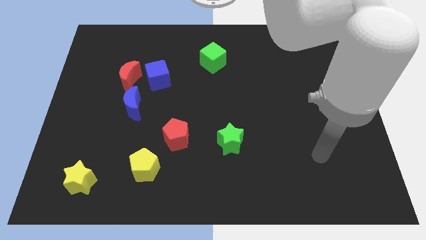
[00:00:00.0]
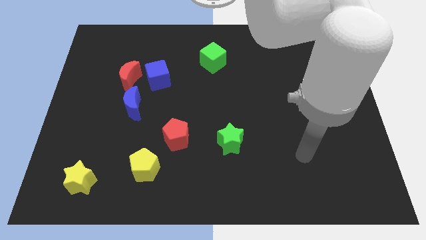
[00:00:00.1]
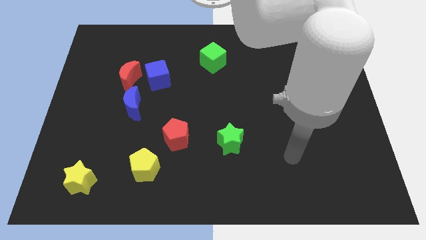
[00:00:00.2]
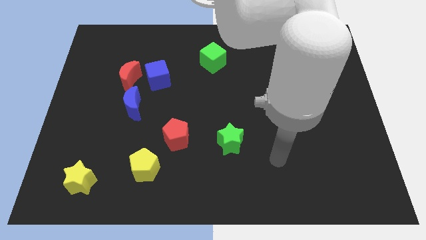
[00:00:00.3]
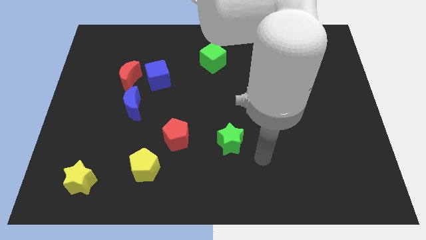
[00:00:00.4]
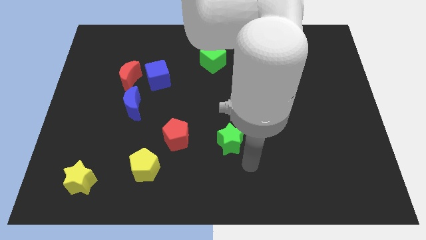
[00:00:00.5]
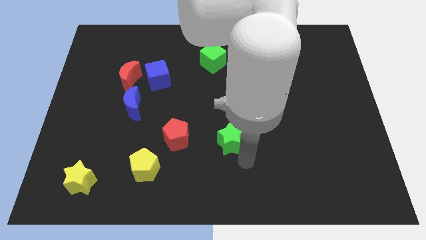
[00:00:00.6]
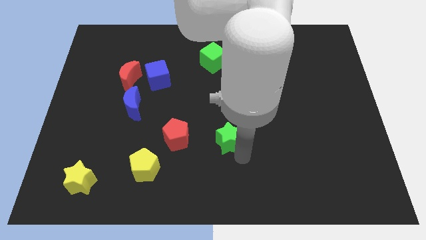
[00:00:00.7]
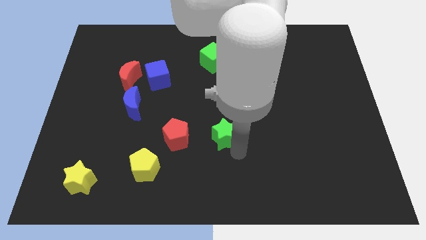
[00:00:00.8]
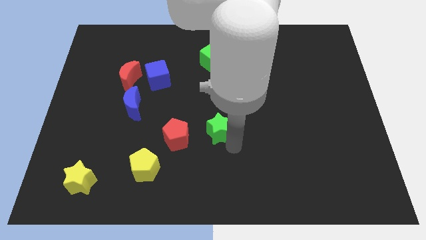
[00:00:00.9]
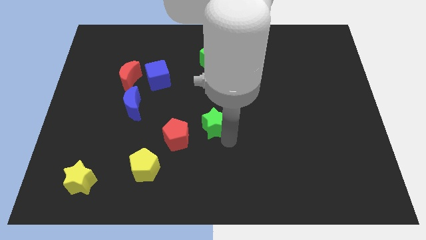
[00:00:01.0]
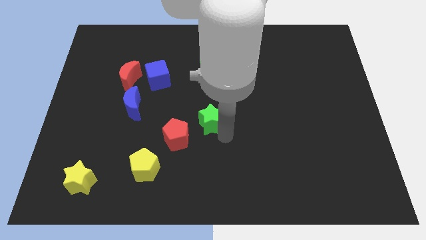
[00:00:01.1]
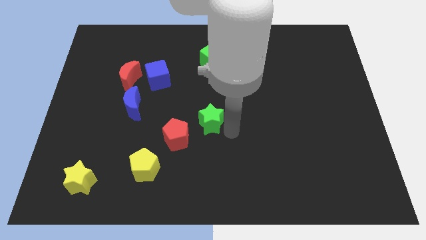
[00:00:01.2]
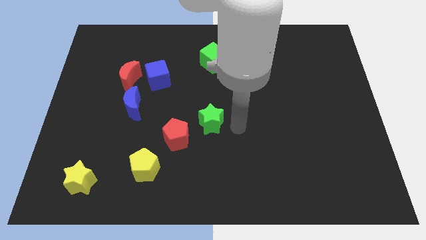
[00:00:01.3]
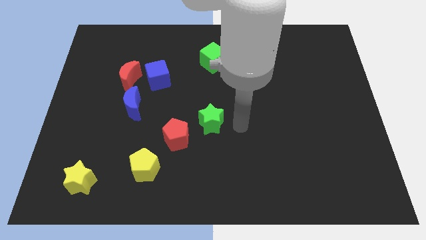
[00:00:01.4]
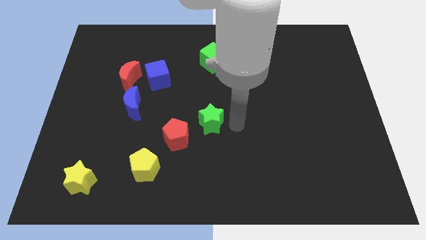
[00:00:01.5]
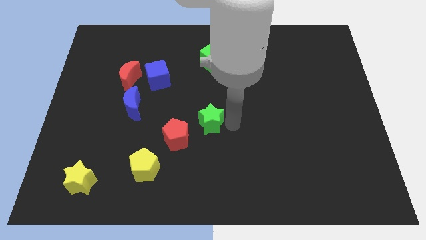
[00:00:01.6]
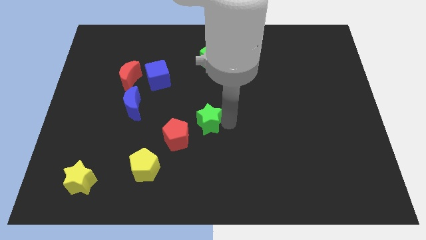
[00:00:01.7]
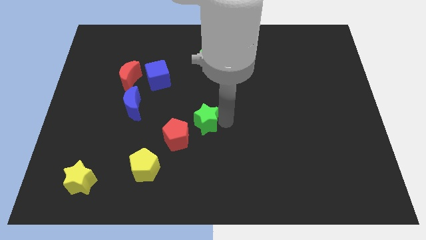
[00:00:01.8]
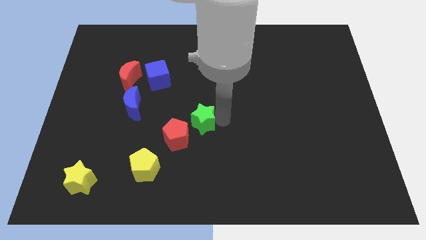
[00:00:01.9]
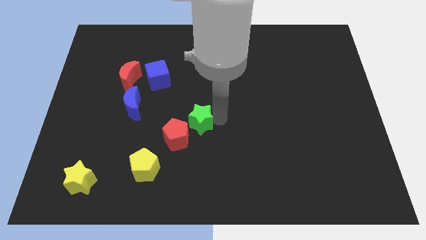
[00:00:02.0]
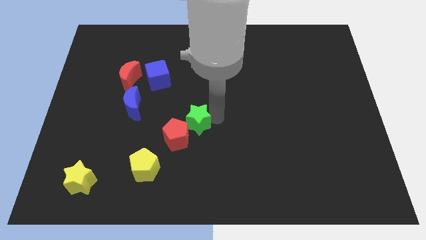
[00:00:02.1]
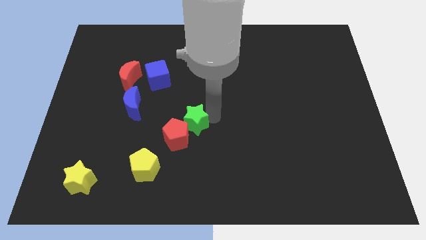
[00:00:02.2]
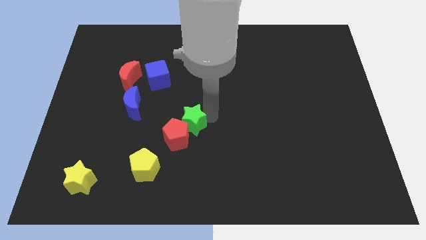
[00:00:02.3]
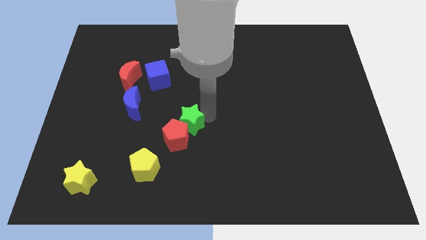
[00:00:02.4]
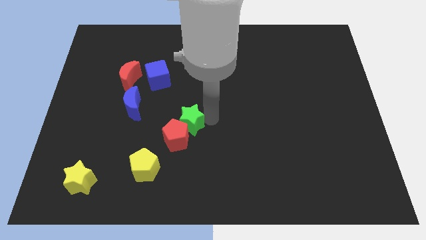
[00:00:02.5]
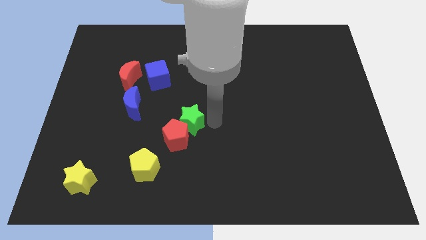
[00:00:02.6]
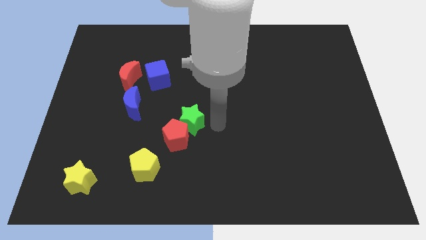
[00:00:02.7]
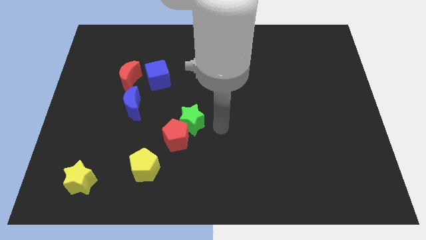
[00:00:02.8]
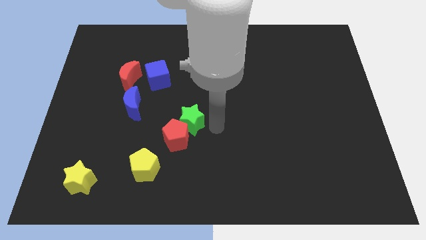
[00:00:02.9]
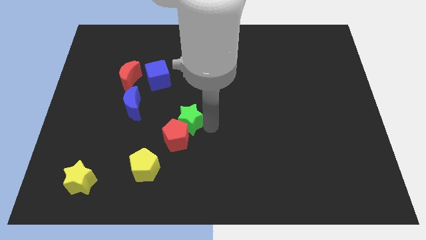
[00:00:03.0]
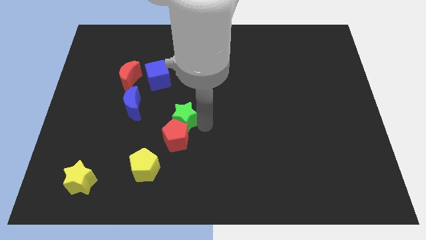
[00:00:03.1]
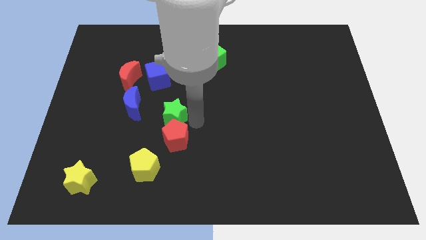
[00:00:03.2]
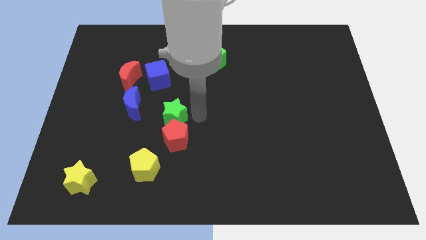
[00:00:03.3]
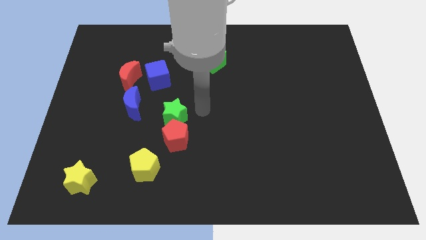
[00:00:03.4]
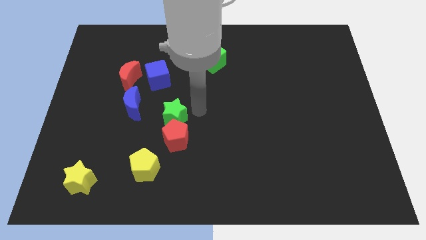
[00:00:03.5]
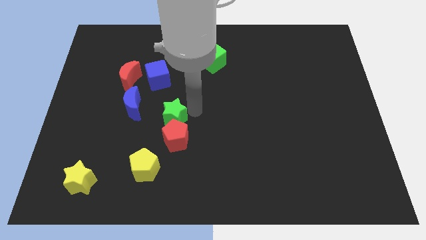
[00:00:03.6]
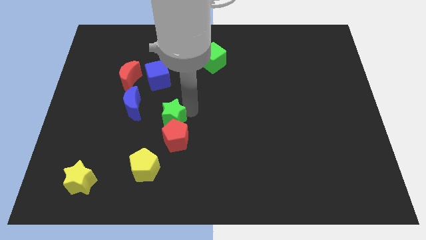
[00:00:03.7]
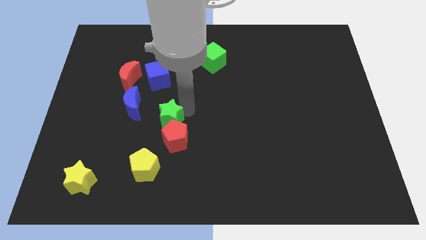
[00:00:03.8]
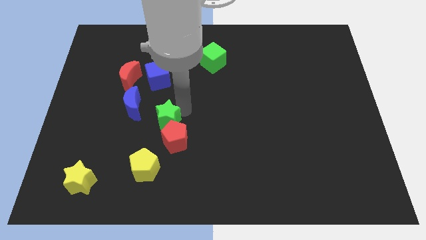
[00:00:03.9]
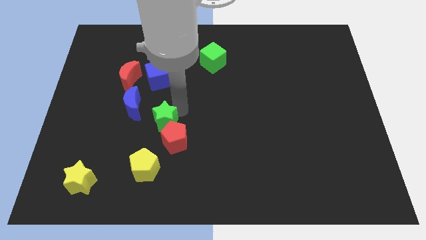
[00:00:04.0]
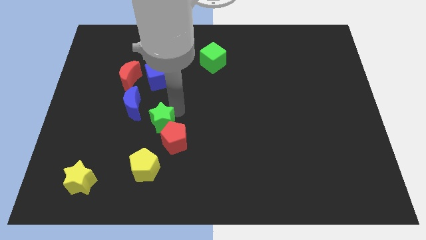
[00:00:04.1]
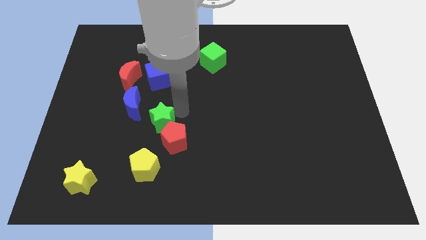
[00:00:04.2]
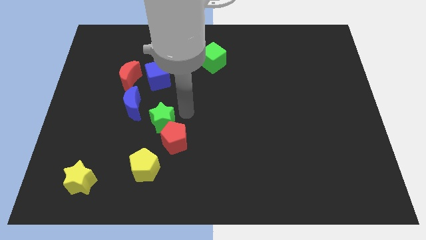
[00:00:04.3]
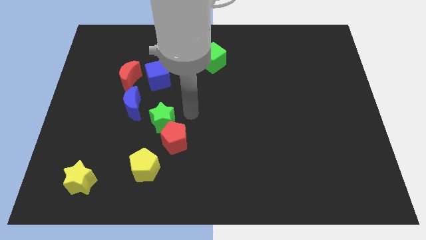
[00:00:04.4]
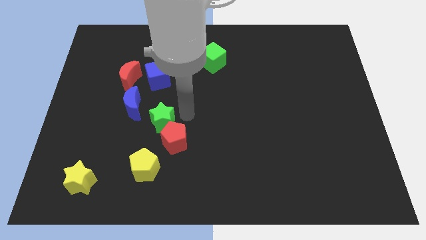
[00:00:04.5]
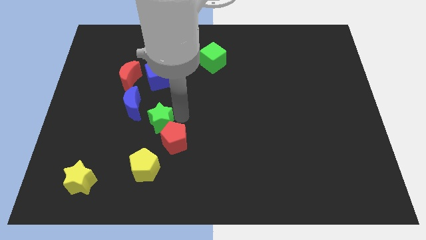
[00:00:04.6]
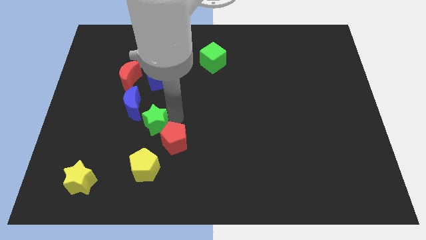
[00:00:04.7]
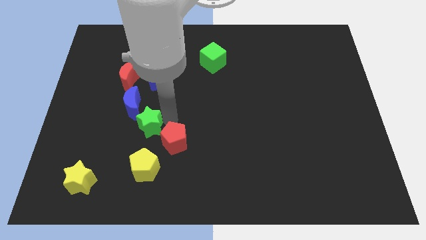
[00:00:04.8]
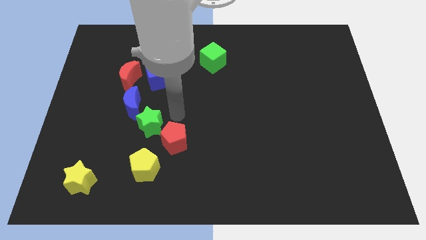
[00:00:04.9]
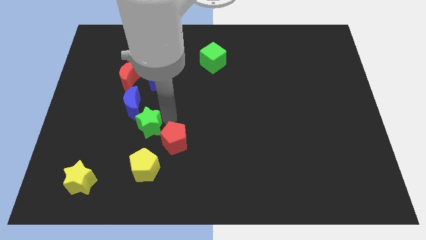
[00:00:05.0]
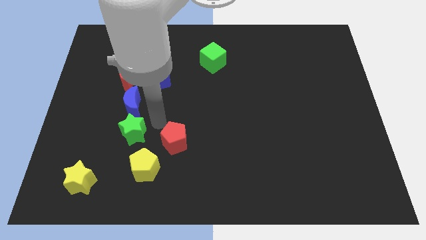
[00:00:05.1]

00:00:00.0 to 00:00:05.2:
move the green star left

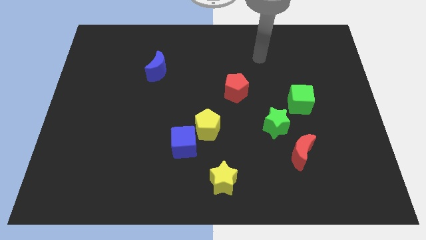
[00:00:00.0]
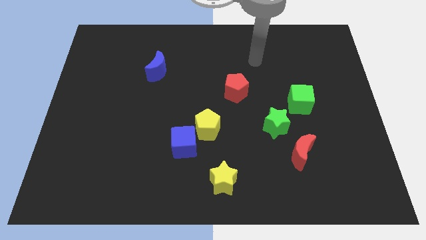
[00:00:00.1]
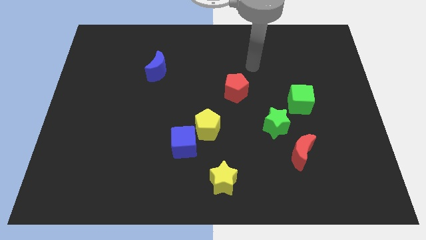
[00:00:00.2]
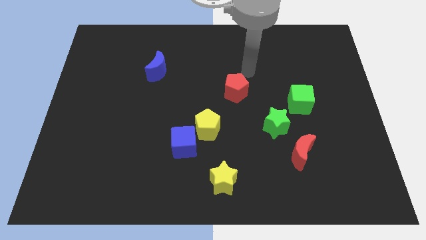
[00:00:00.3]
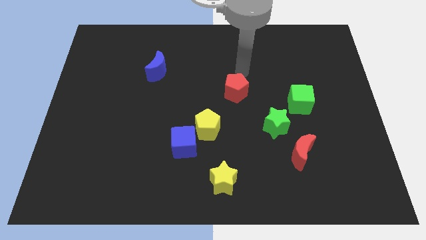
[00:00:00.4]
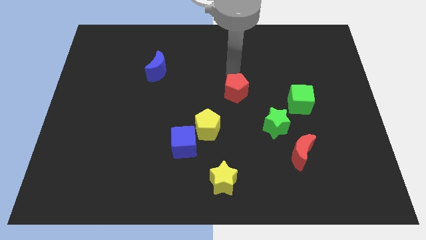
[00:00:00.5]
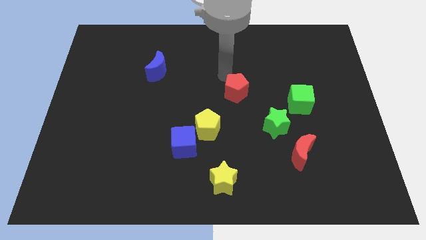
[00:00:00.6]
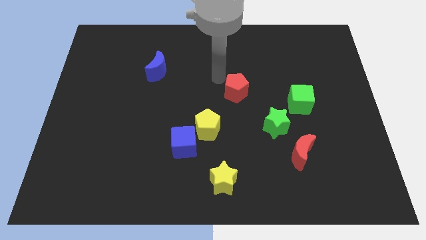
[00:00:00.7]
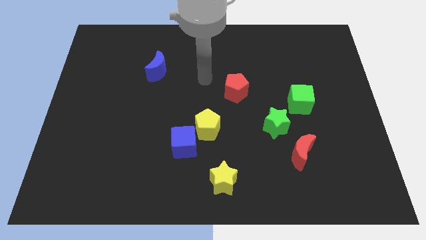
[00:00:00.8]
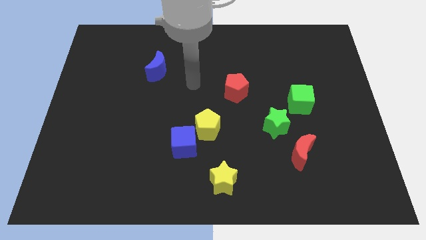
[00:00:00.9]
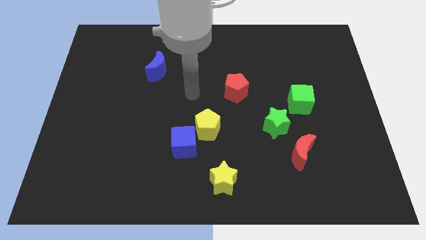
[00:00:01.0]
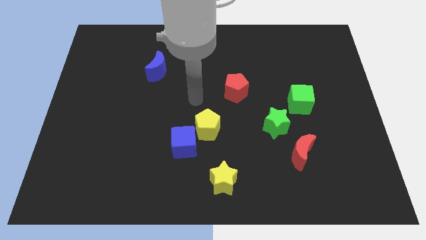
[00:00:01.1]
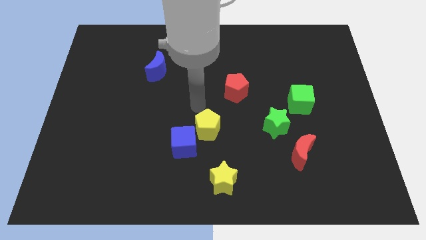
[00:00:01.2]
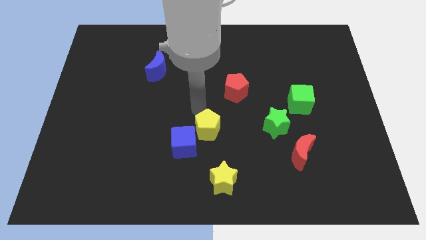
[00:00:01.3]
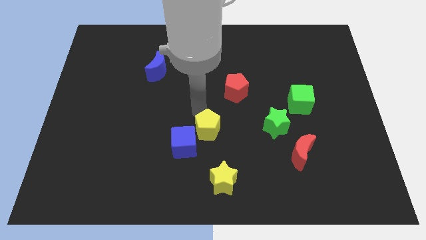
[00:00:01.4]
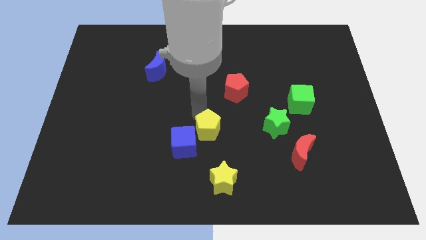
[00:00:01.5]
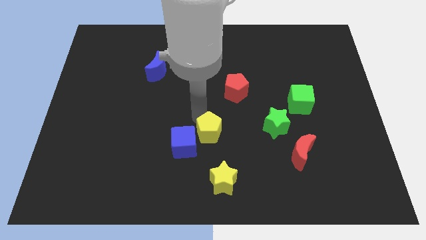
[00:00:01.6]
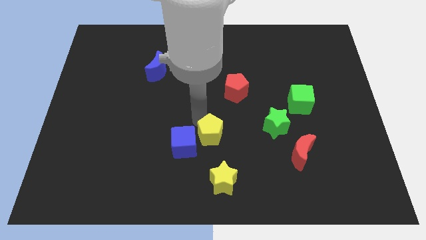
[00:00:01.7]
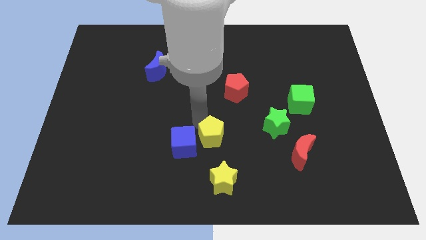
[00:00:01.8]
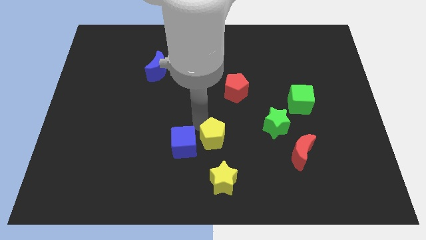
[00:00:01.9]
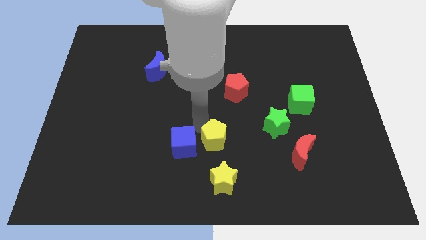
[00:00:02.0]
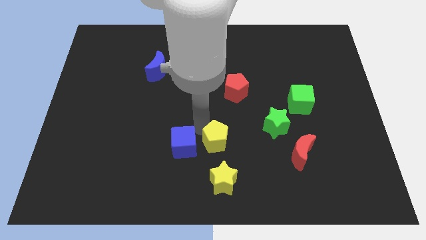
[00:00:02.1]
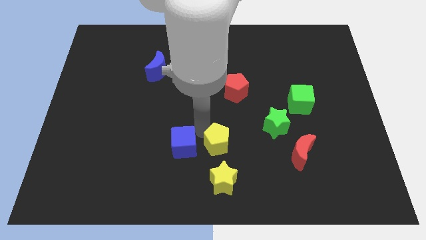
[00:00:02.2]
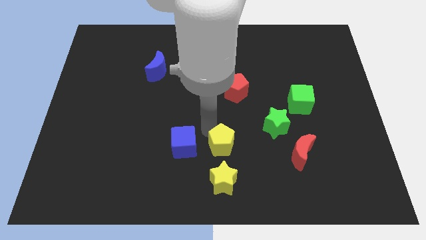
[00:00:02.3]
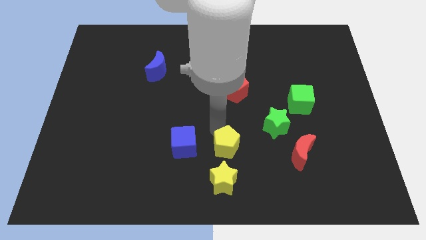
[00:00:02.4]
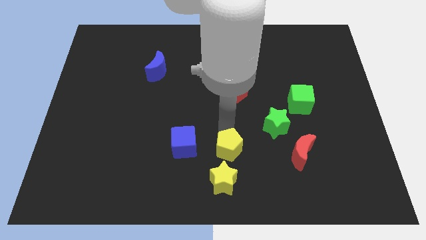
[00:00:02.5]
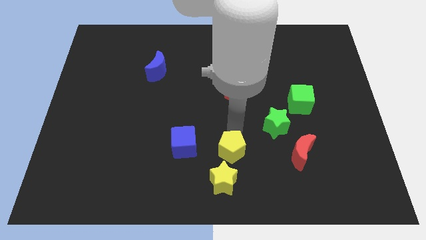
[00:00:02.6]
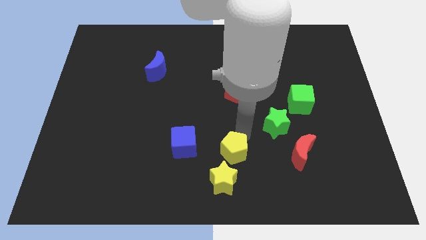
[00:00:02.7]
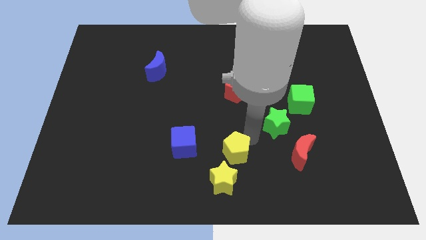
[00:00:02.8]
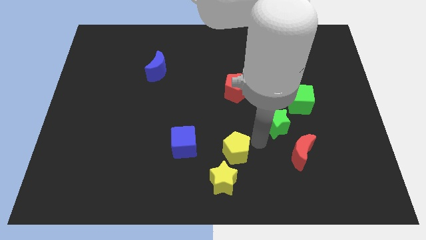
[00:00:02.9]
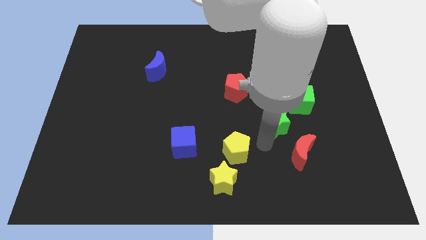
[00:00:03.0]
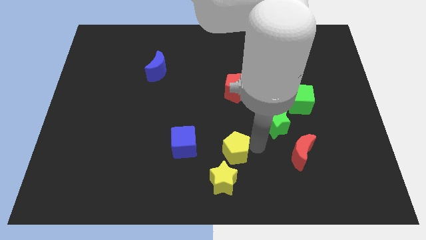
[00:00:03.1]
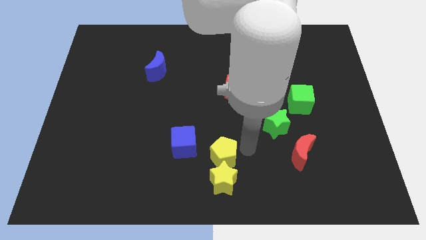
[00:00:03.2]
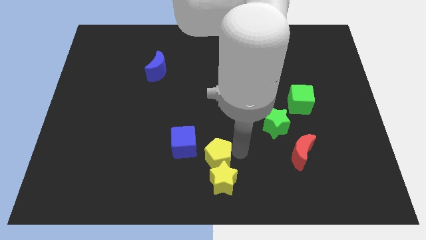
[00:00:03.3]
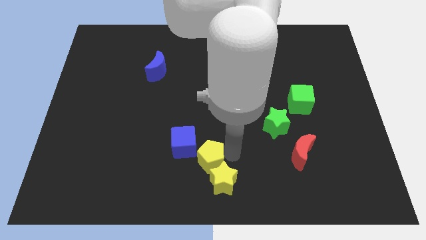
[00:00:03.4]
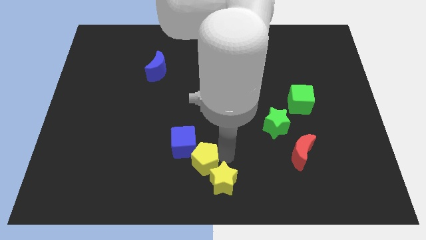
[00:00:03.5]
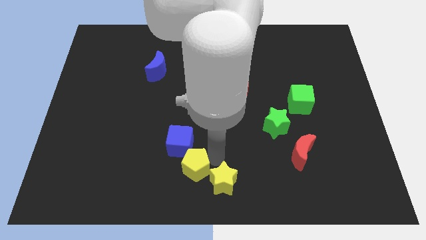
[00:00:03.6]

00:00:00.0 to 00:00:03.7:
slightly move the yellow pentagon diagonally downwards and to the left
